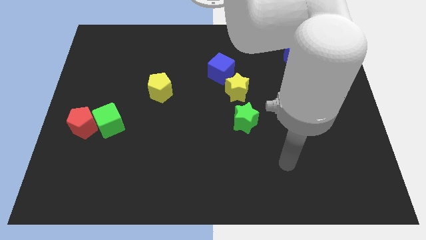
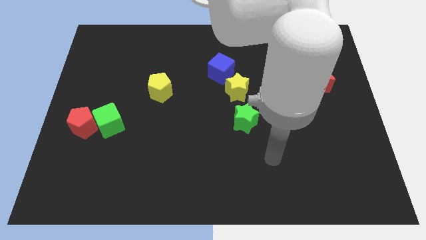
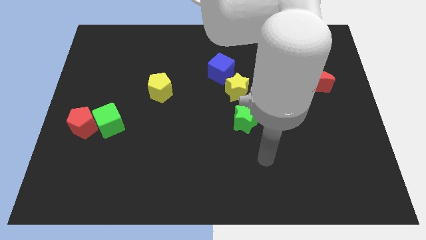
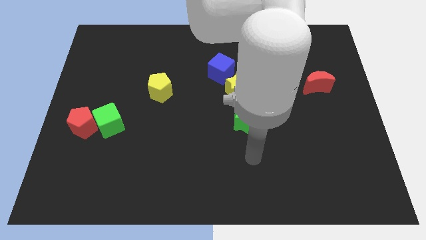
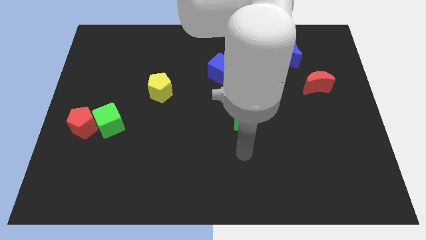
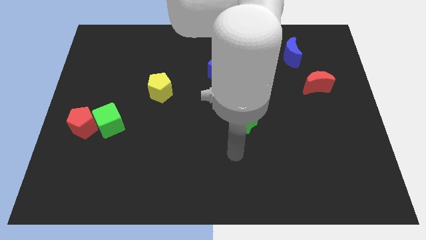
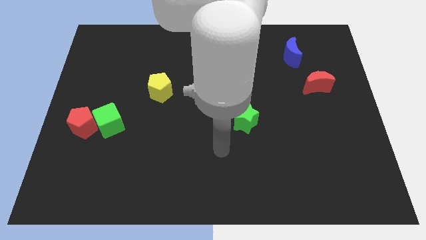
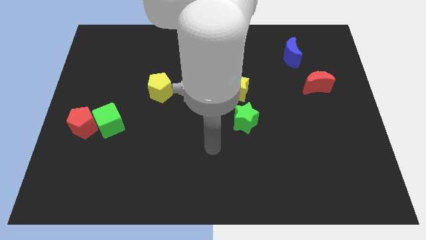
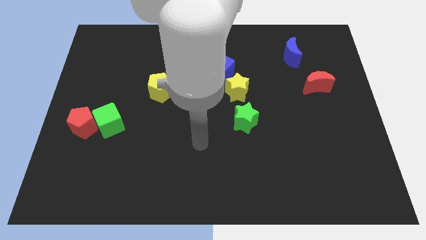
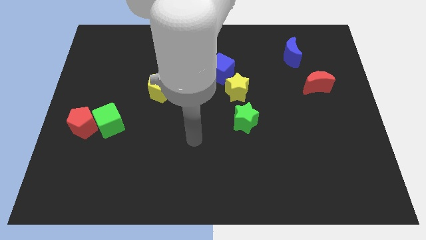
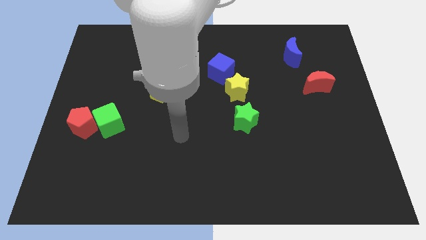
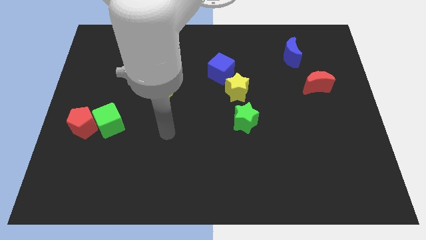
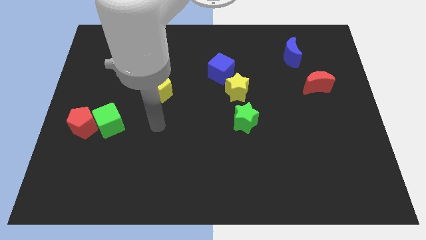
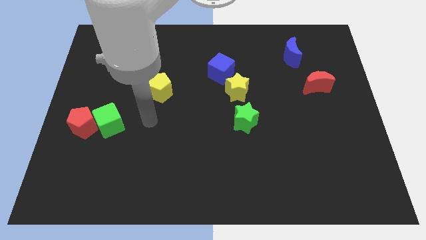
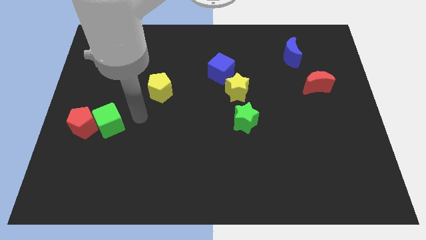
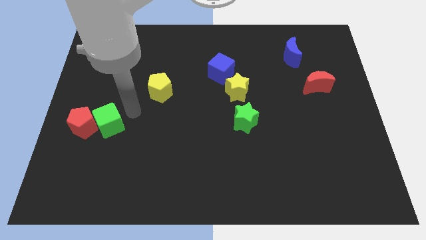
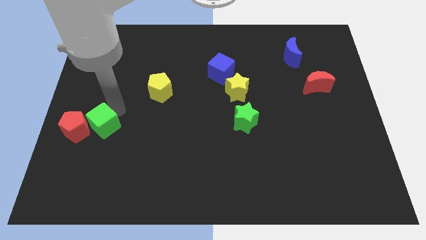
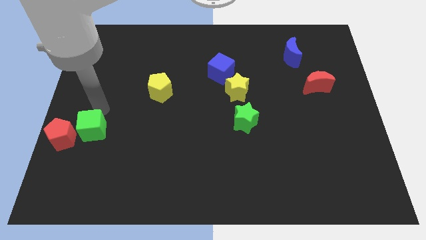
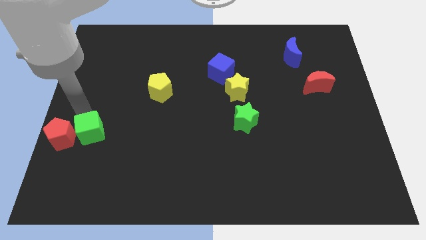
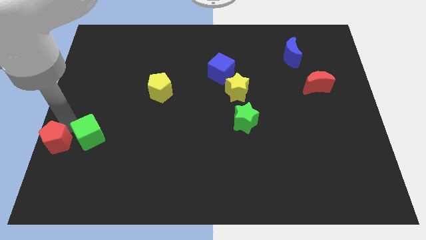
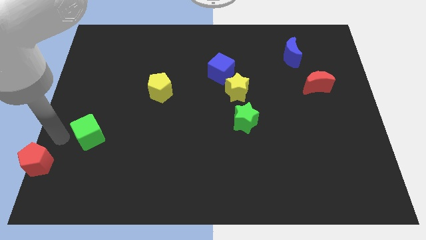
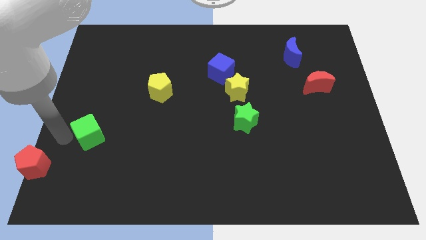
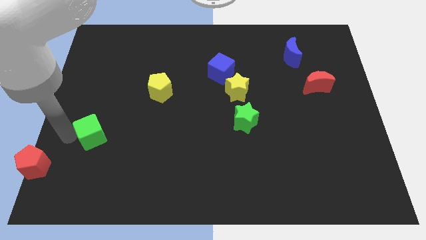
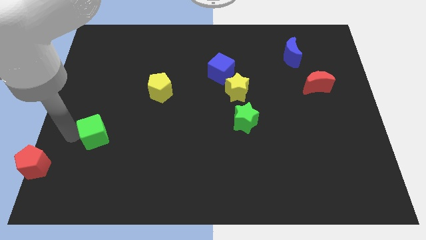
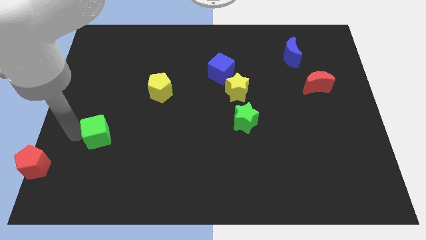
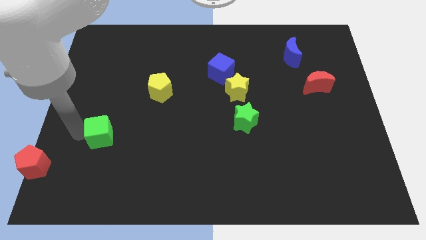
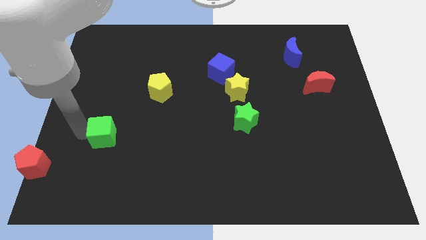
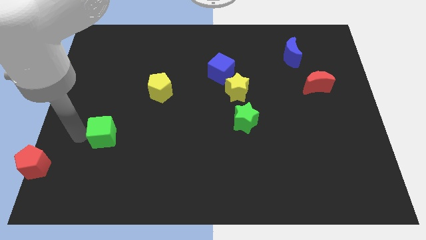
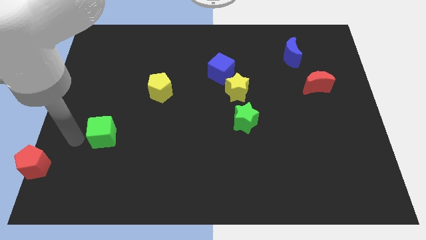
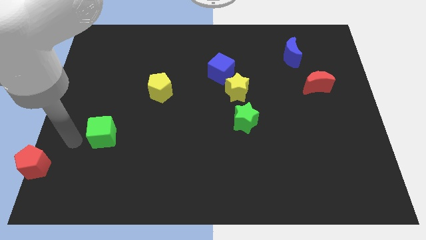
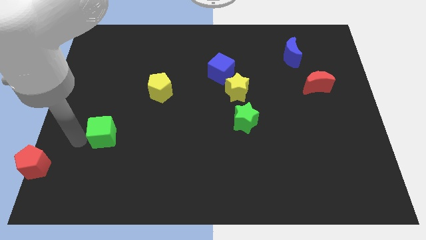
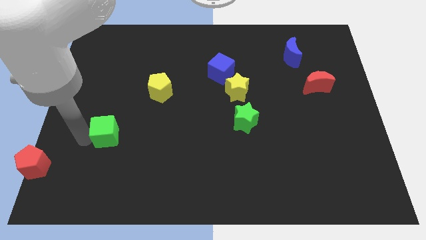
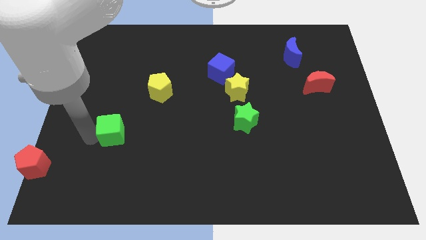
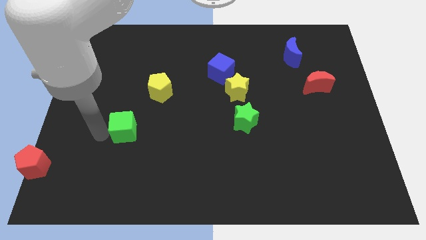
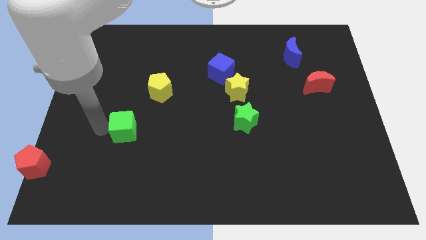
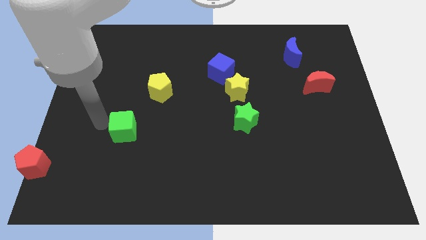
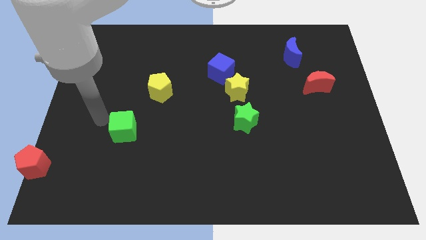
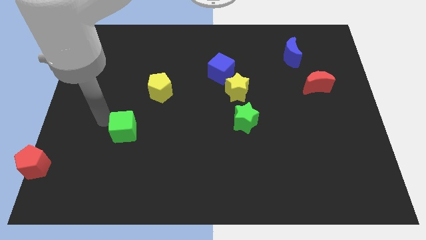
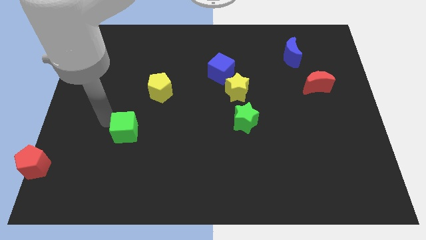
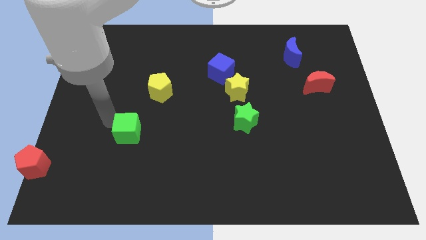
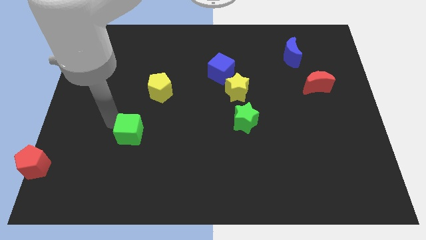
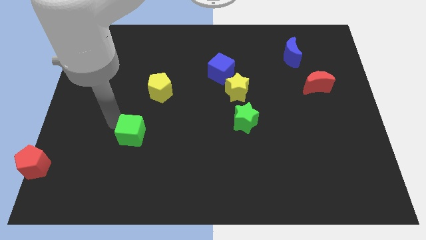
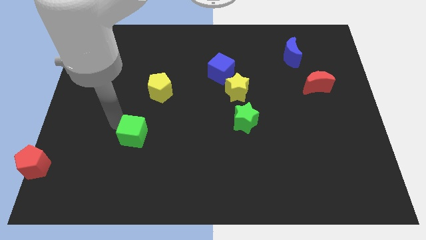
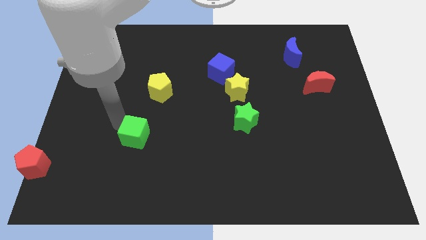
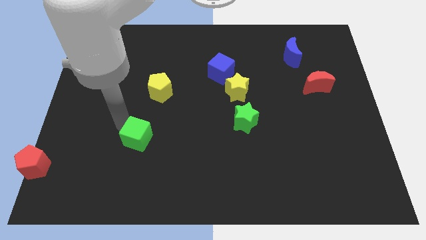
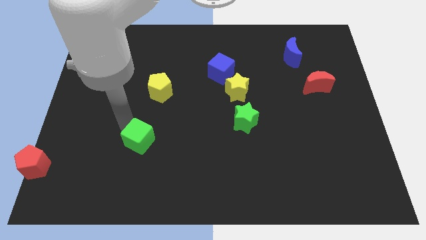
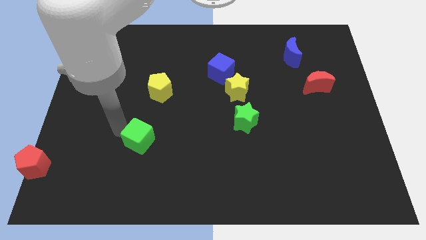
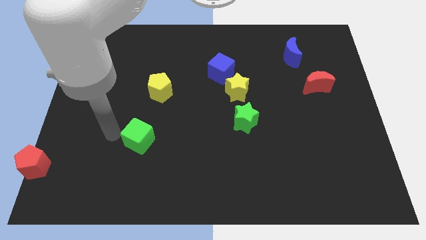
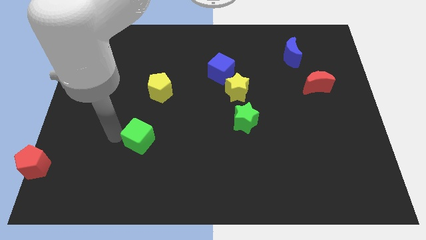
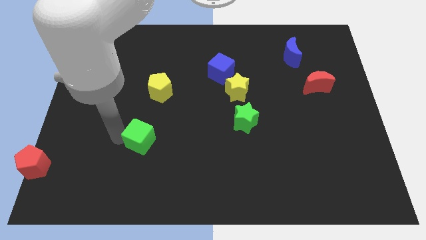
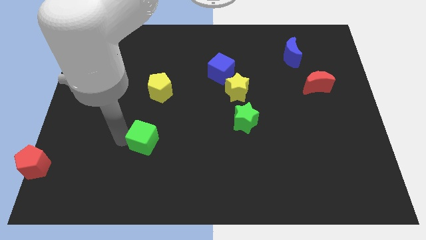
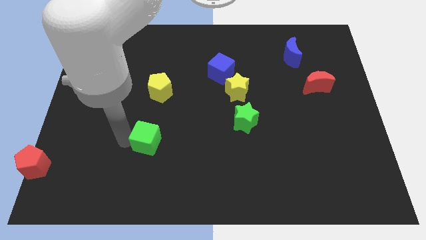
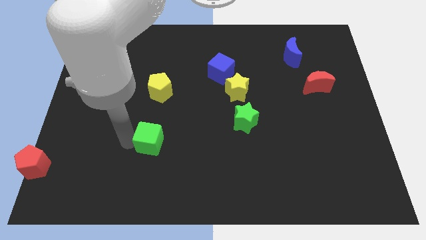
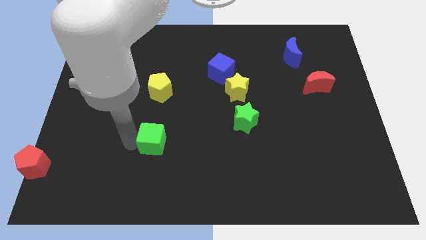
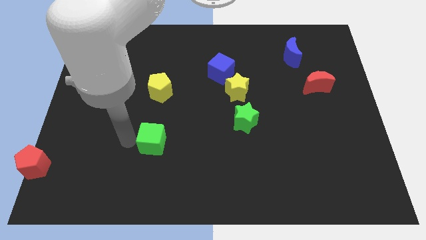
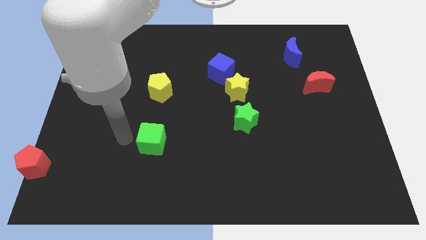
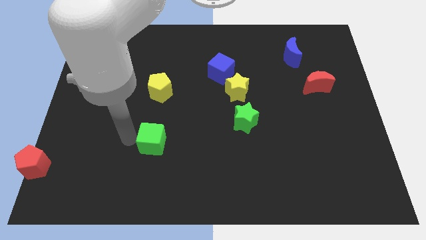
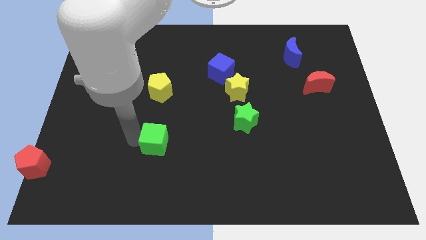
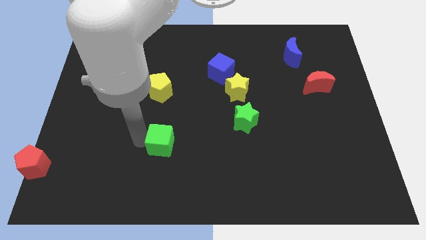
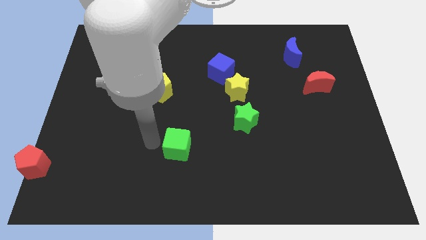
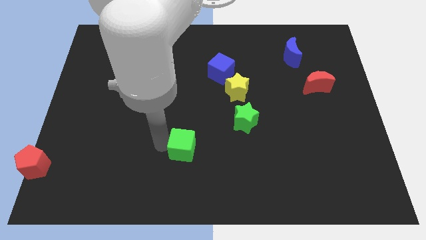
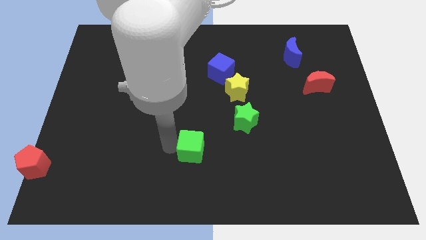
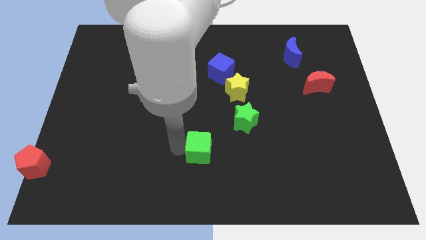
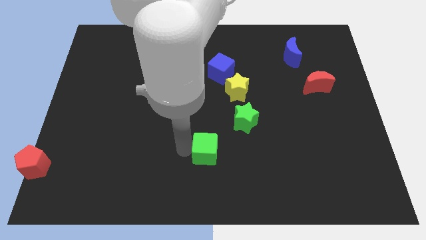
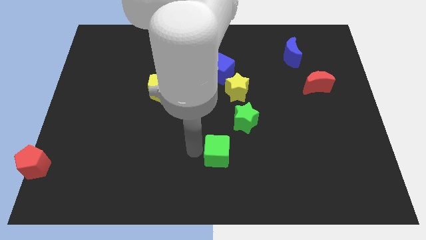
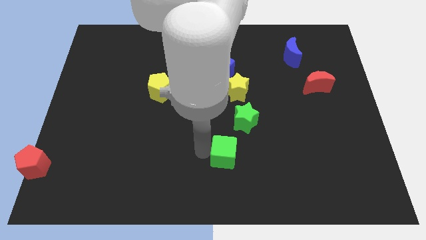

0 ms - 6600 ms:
put the green cube to the bottom of the green star

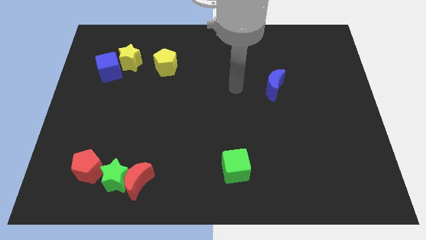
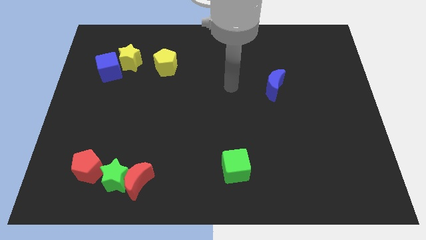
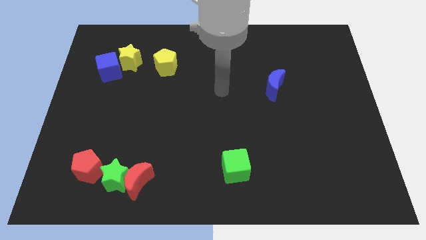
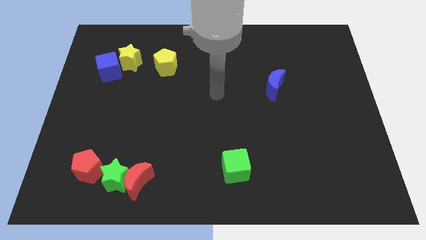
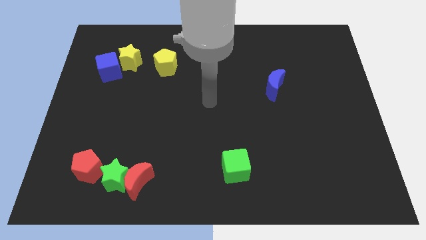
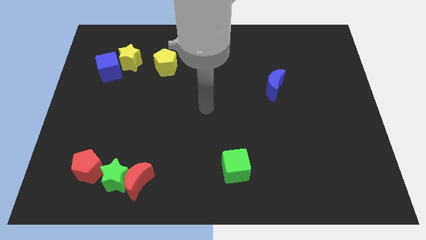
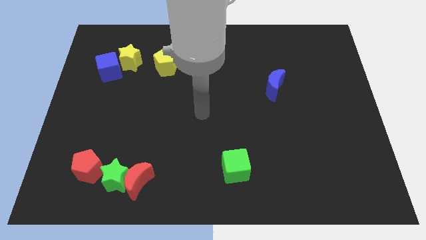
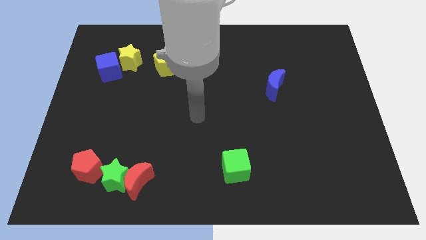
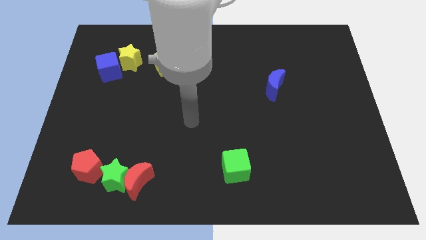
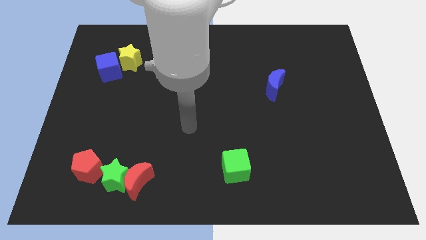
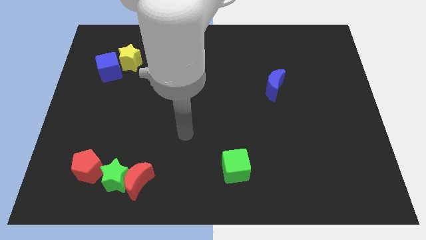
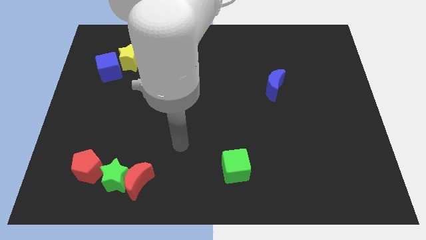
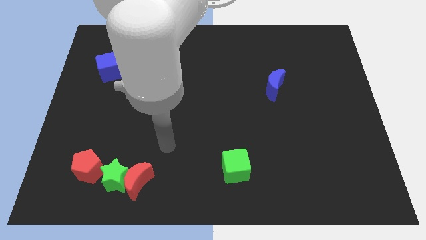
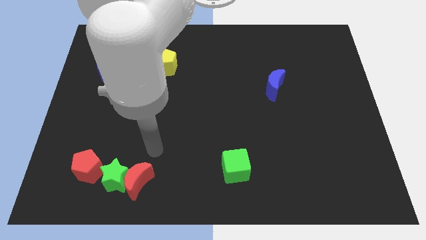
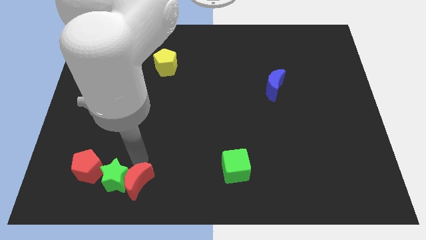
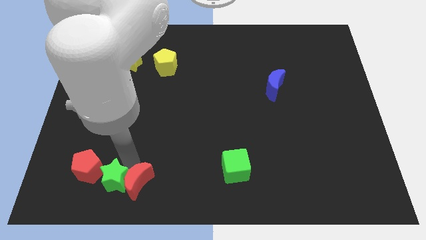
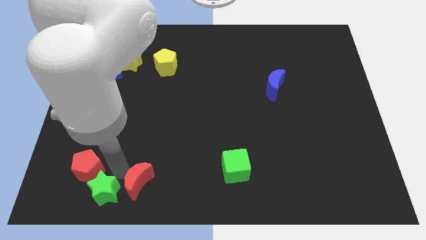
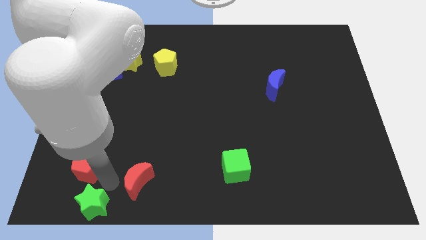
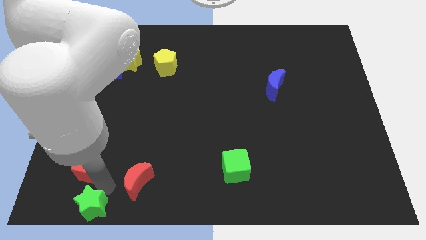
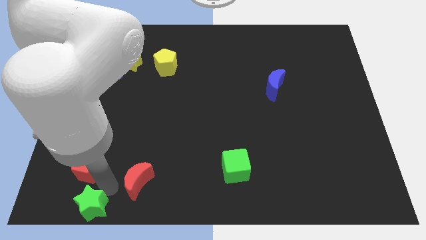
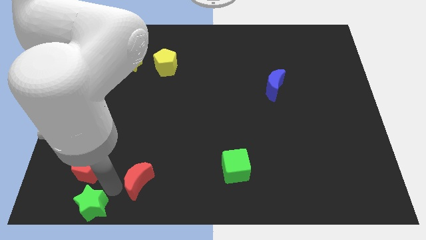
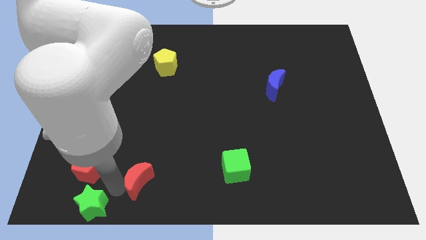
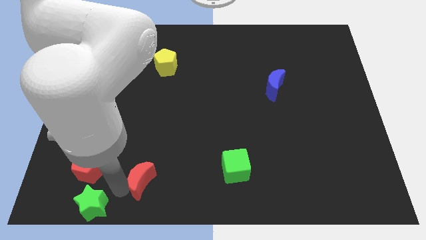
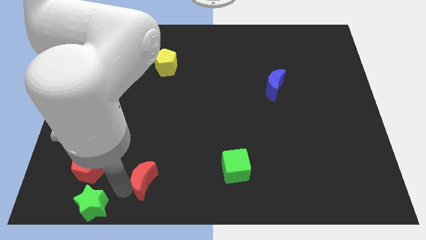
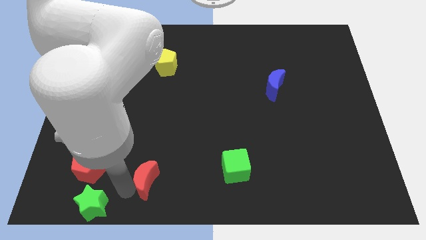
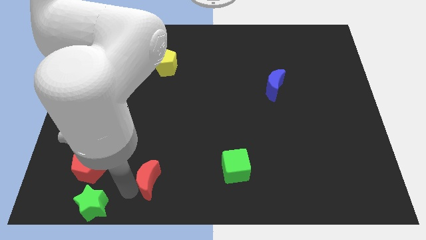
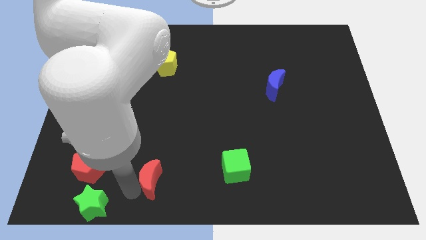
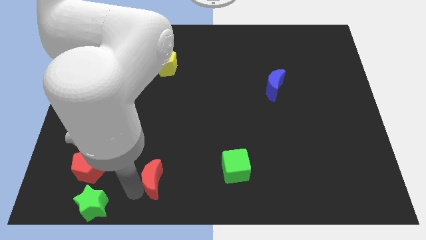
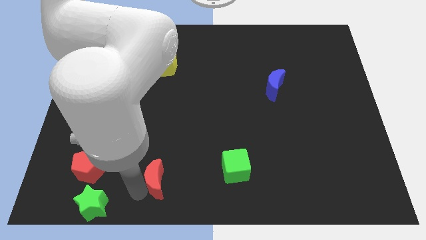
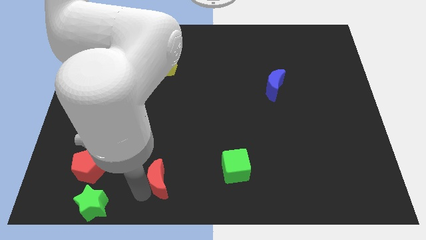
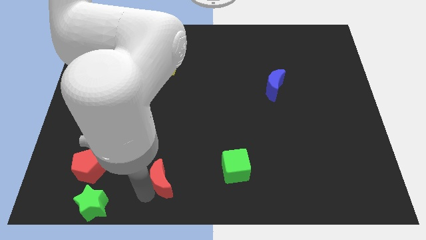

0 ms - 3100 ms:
push the red moon to the left side of the green cube
